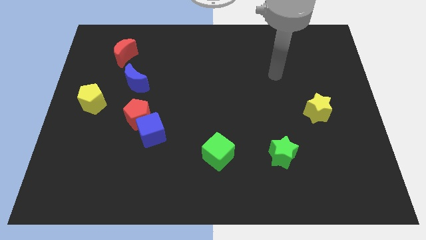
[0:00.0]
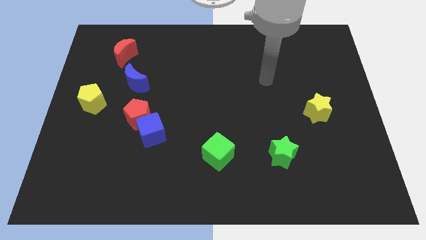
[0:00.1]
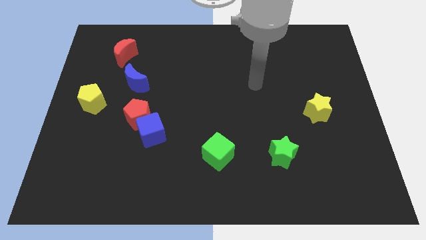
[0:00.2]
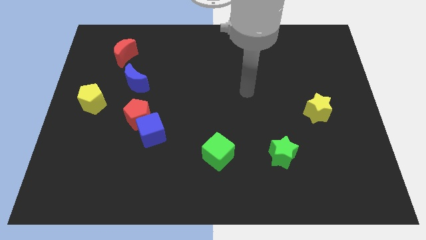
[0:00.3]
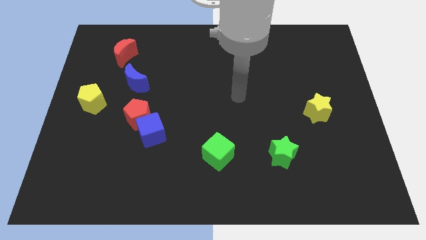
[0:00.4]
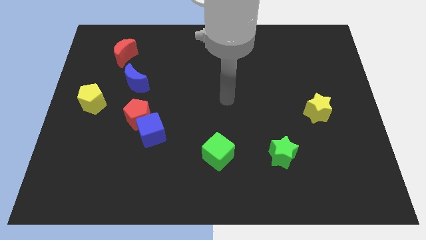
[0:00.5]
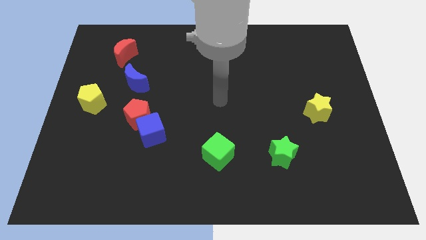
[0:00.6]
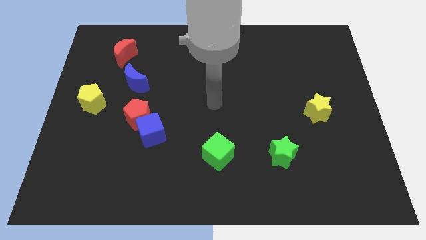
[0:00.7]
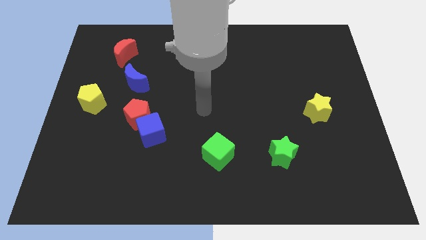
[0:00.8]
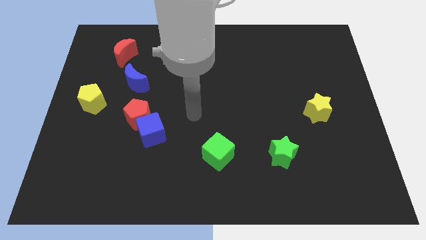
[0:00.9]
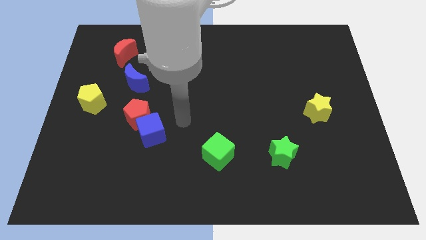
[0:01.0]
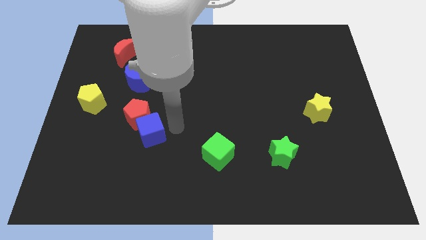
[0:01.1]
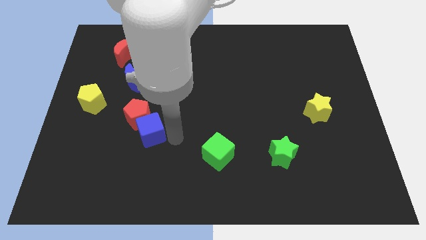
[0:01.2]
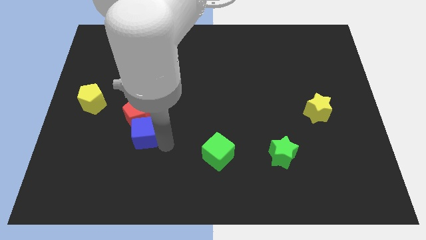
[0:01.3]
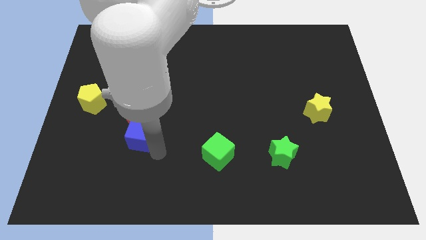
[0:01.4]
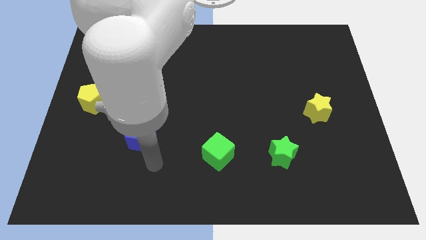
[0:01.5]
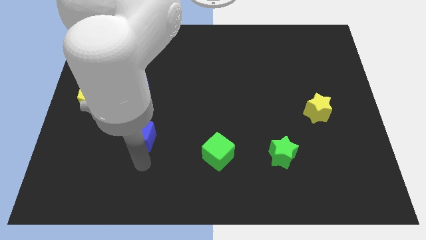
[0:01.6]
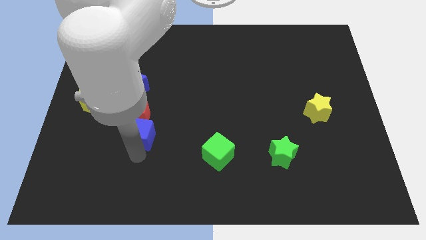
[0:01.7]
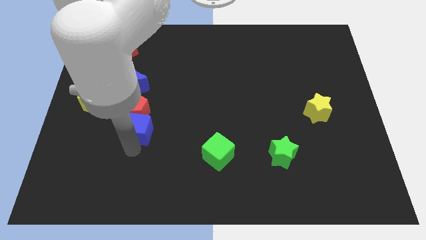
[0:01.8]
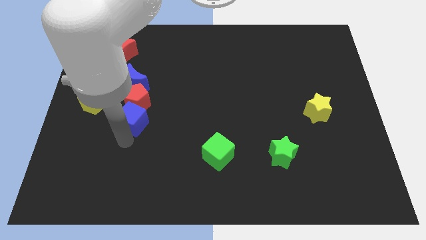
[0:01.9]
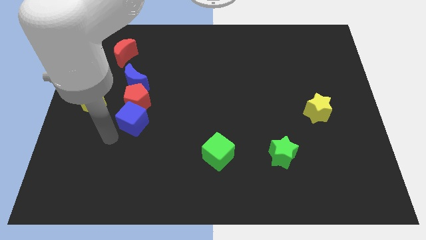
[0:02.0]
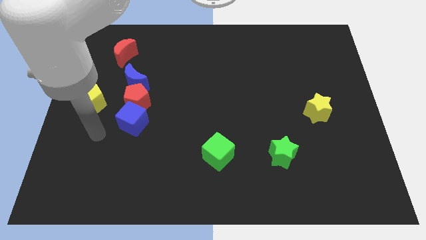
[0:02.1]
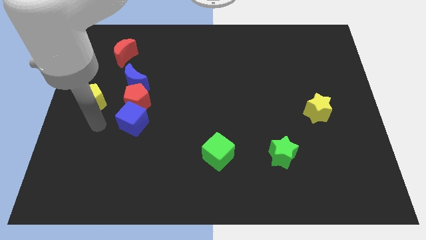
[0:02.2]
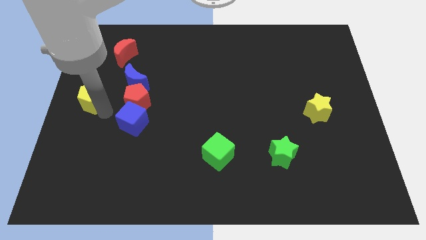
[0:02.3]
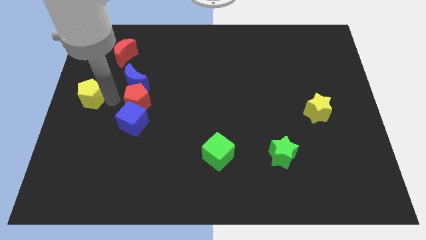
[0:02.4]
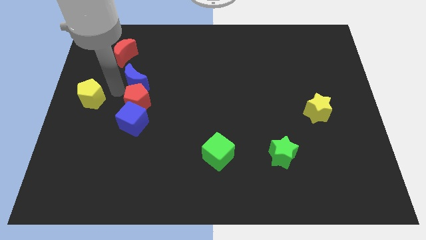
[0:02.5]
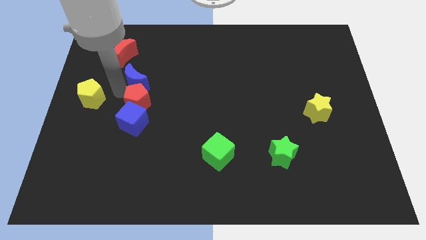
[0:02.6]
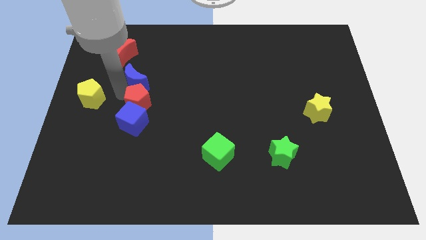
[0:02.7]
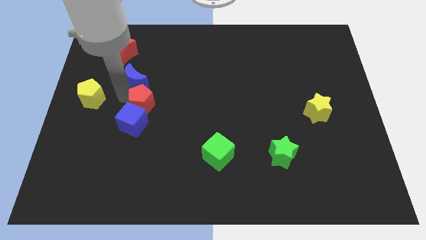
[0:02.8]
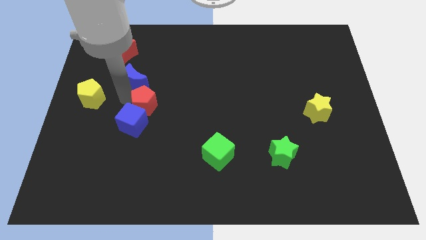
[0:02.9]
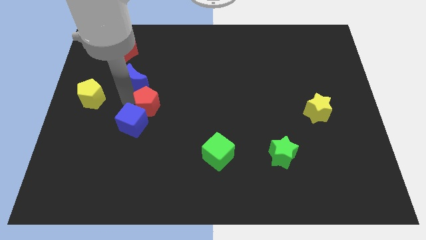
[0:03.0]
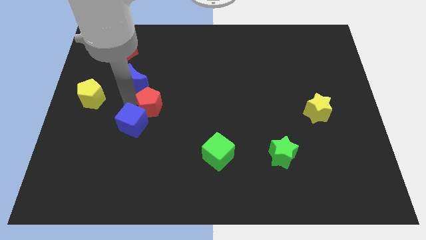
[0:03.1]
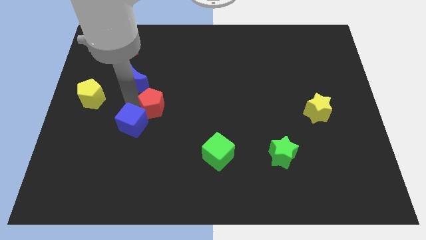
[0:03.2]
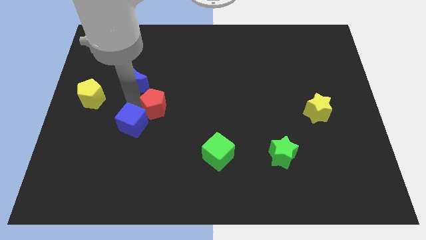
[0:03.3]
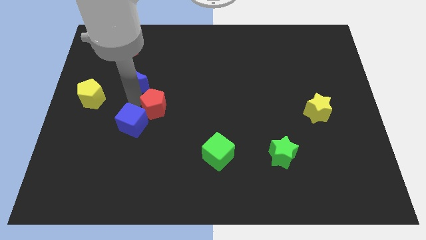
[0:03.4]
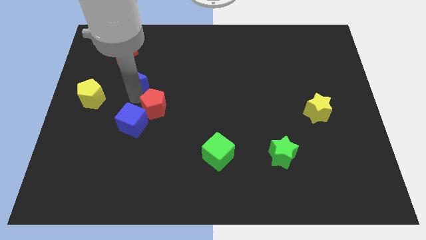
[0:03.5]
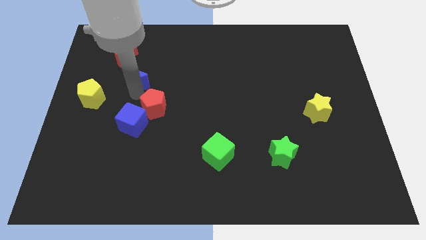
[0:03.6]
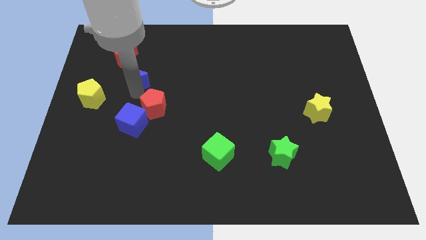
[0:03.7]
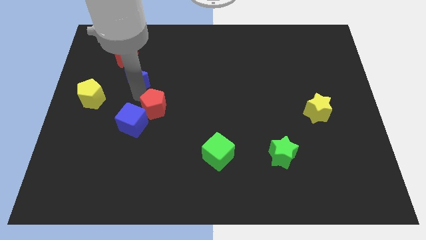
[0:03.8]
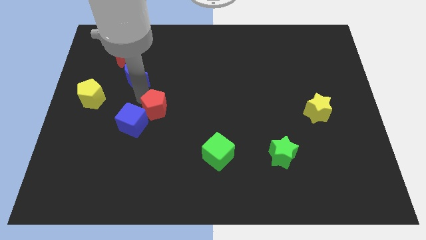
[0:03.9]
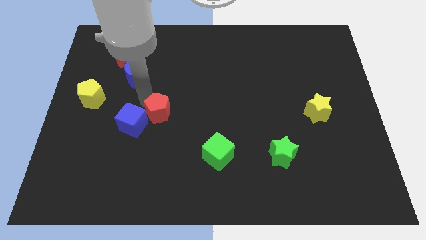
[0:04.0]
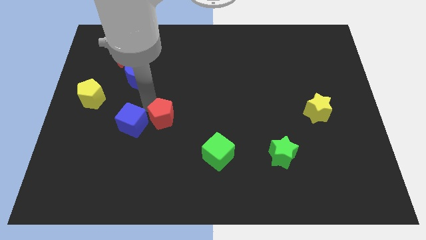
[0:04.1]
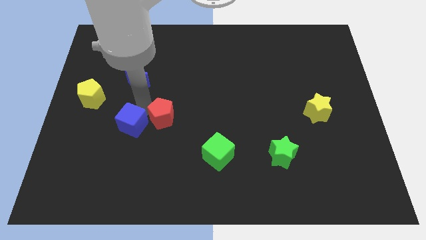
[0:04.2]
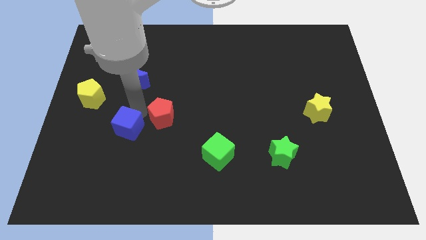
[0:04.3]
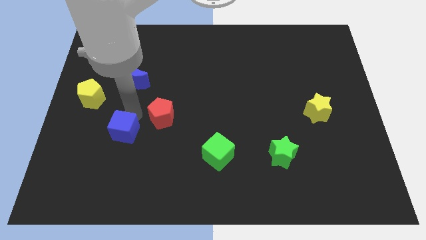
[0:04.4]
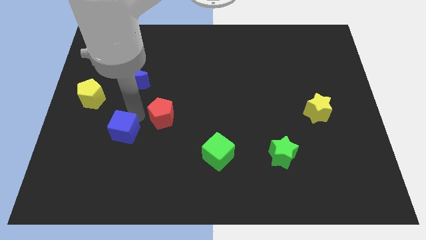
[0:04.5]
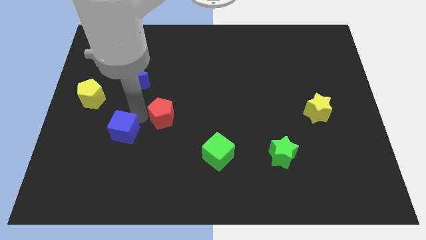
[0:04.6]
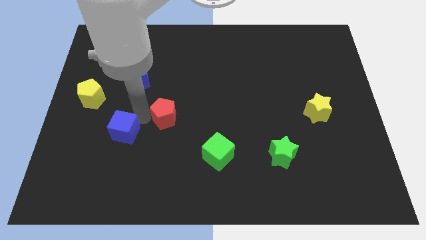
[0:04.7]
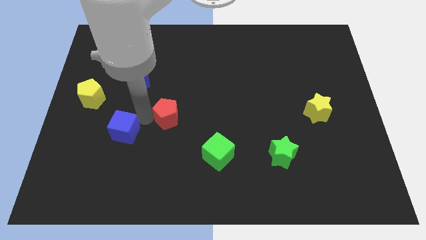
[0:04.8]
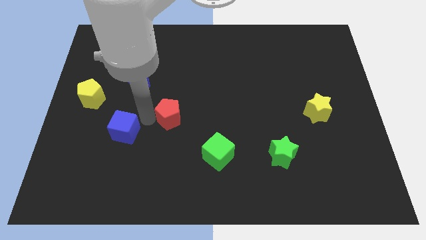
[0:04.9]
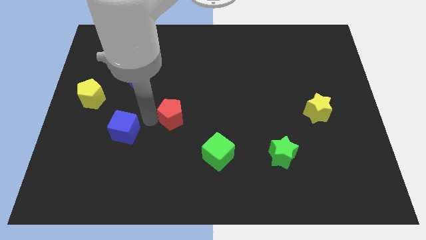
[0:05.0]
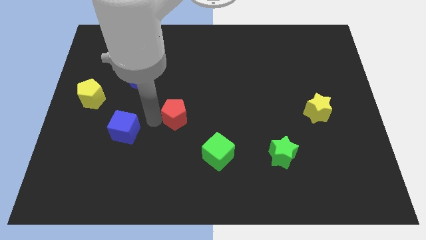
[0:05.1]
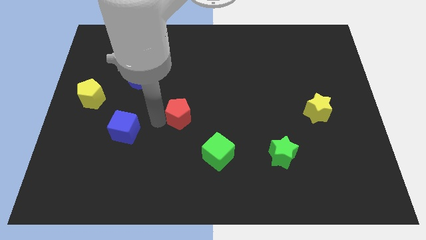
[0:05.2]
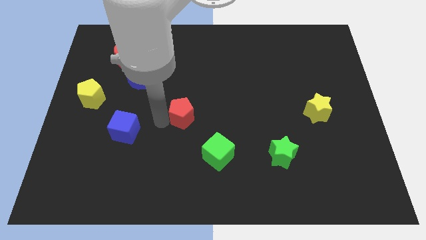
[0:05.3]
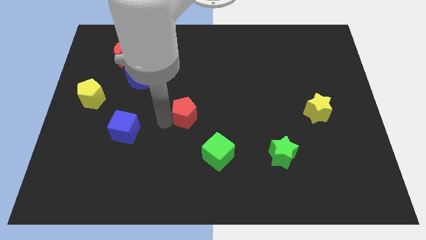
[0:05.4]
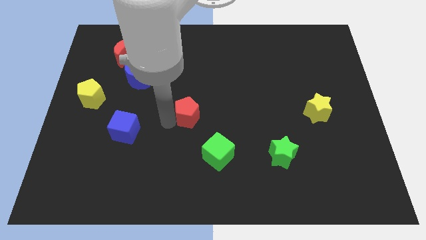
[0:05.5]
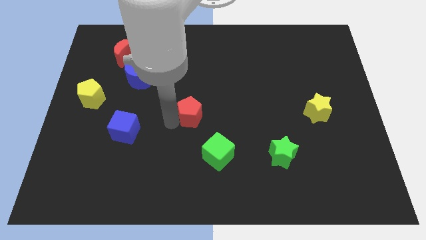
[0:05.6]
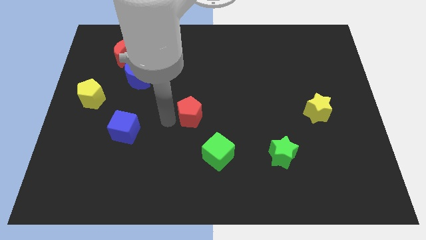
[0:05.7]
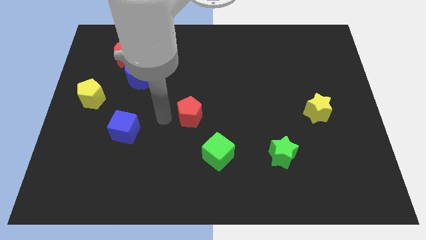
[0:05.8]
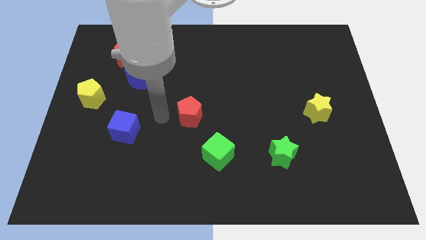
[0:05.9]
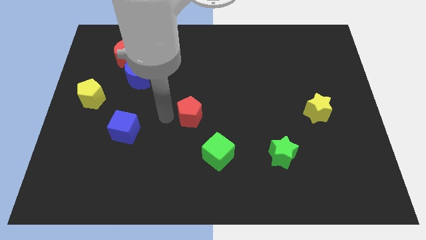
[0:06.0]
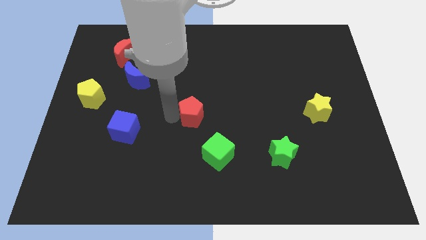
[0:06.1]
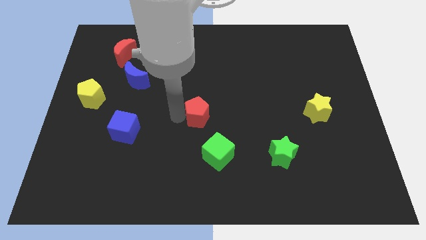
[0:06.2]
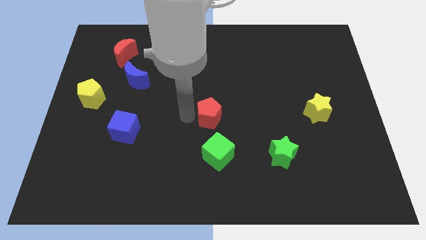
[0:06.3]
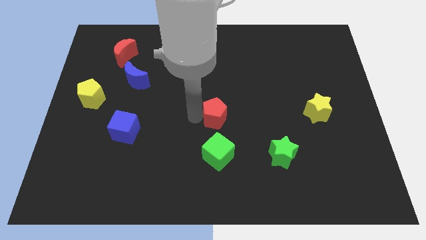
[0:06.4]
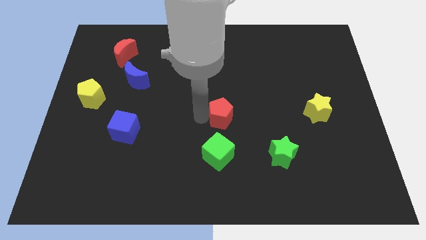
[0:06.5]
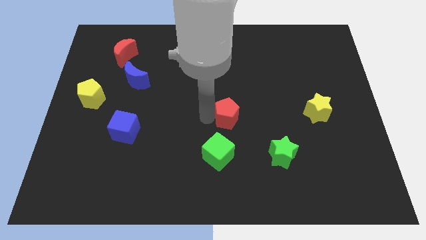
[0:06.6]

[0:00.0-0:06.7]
move the red pentagon to the right

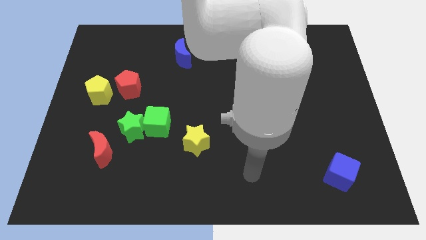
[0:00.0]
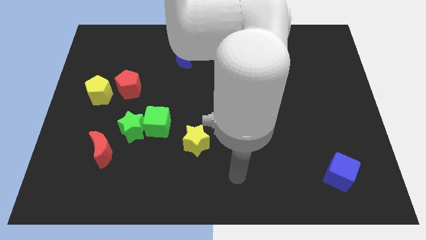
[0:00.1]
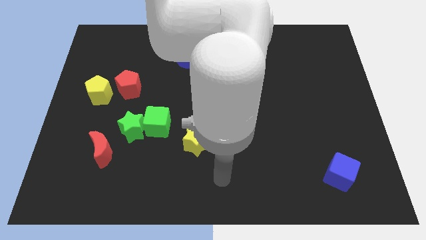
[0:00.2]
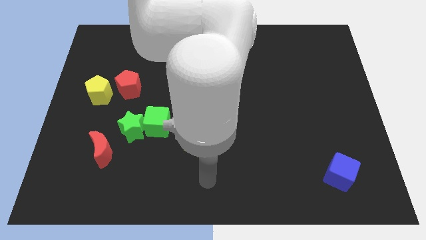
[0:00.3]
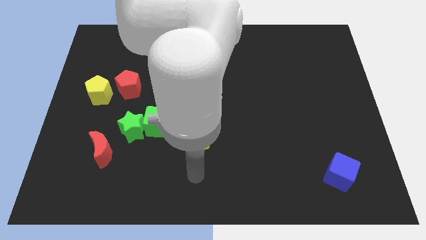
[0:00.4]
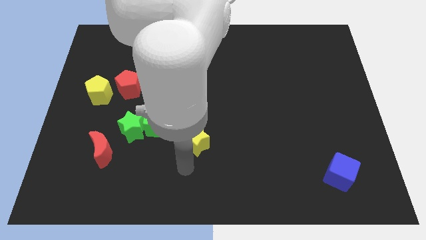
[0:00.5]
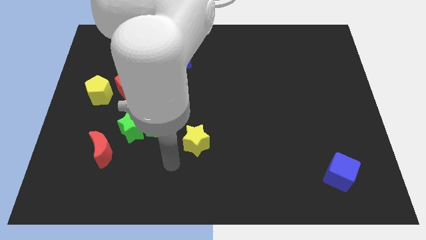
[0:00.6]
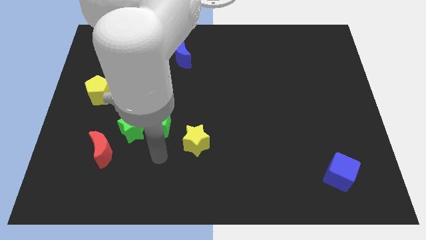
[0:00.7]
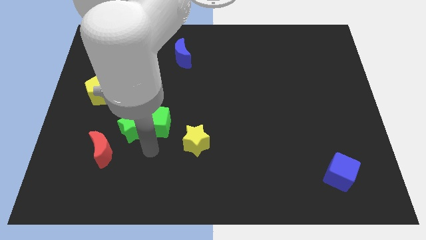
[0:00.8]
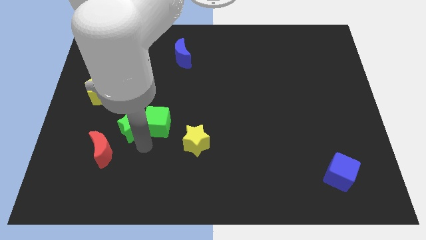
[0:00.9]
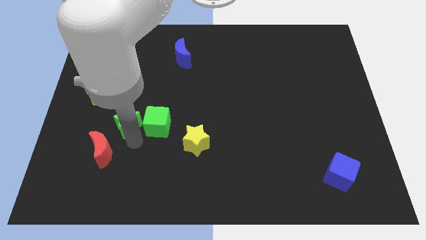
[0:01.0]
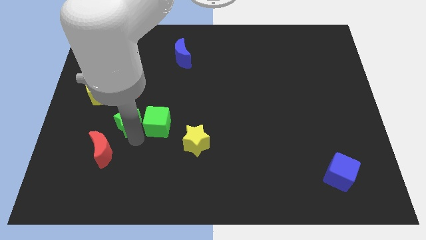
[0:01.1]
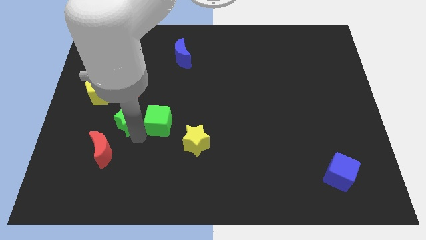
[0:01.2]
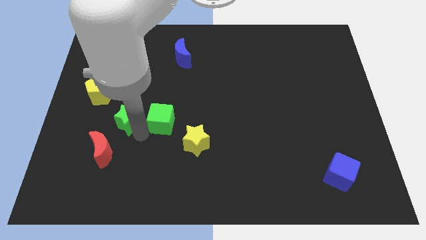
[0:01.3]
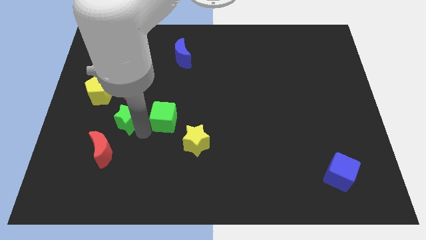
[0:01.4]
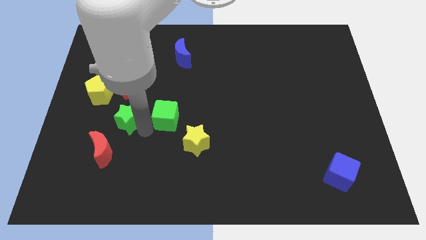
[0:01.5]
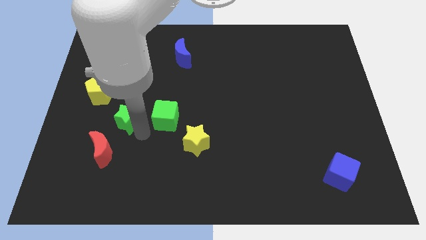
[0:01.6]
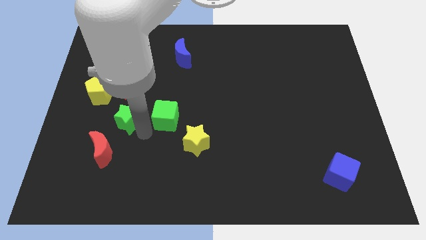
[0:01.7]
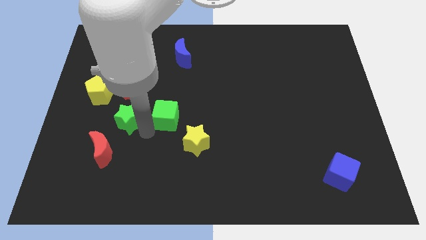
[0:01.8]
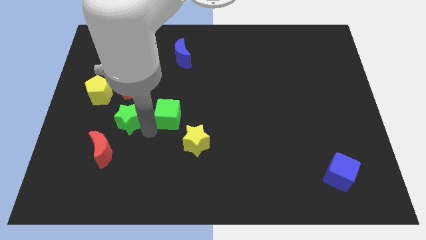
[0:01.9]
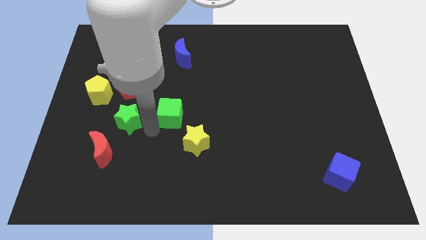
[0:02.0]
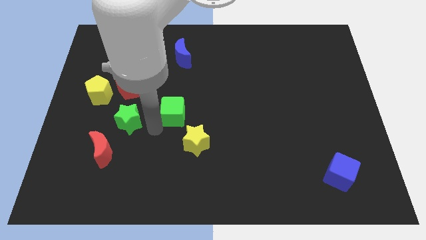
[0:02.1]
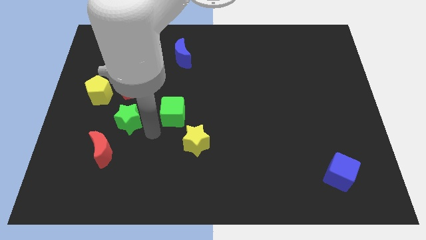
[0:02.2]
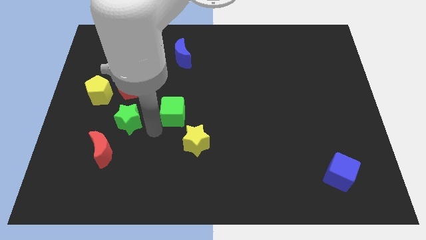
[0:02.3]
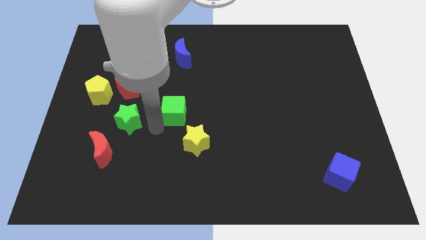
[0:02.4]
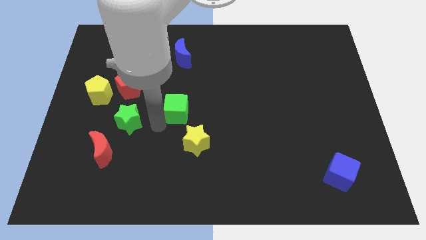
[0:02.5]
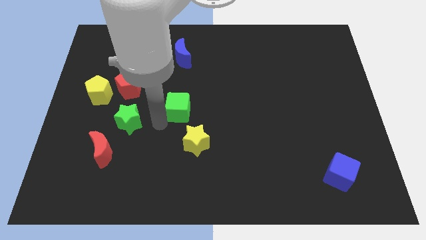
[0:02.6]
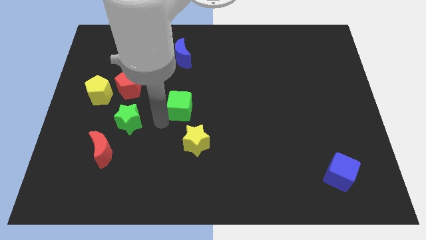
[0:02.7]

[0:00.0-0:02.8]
move the green cube slightly upwards and then right
